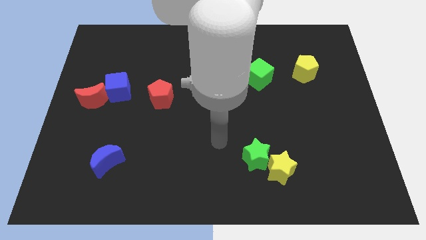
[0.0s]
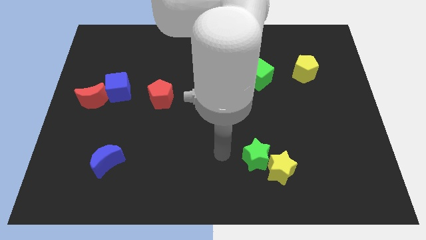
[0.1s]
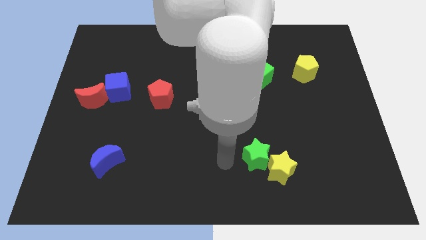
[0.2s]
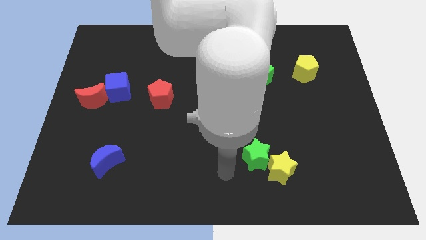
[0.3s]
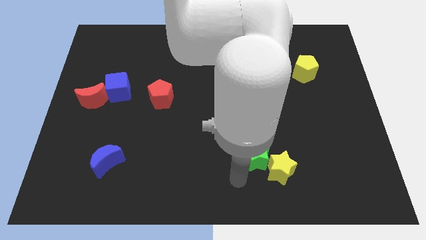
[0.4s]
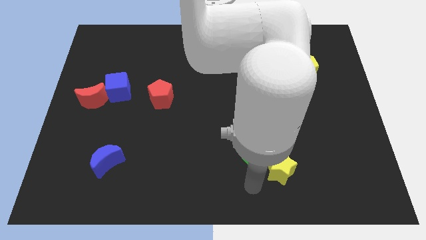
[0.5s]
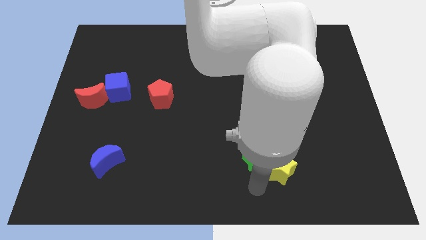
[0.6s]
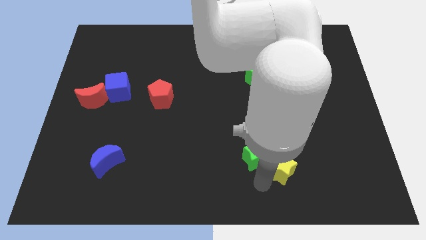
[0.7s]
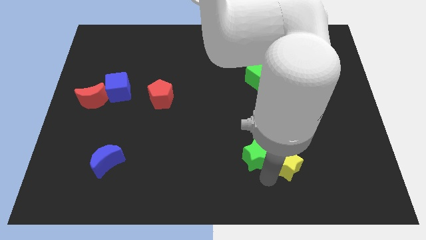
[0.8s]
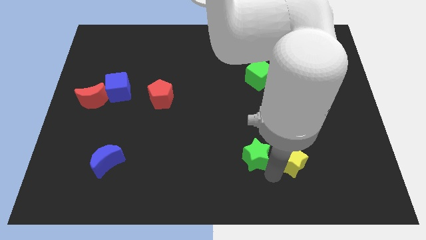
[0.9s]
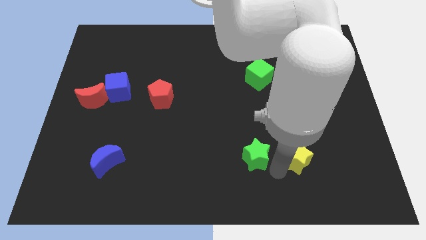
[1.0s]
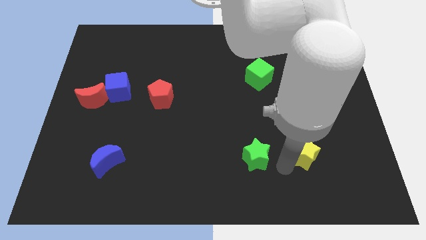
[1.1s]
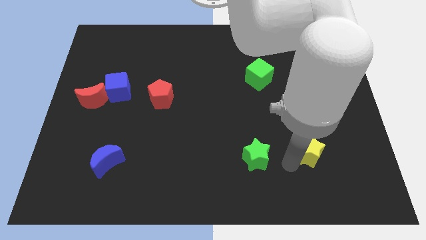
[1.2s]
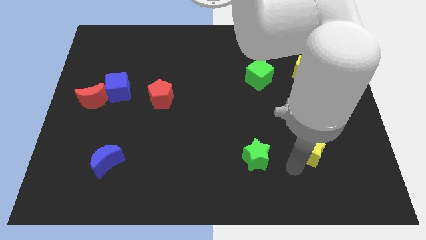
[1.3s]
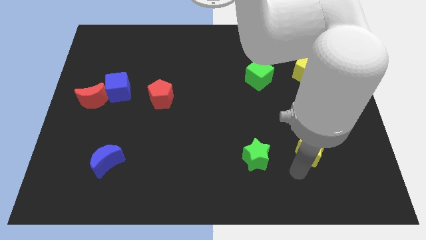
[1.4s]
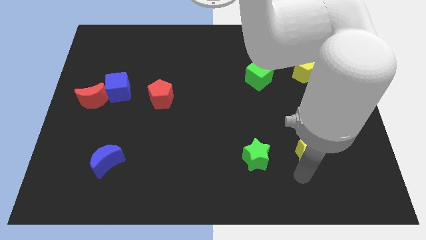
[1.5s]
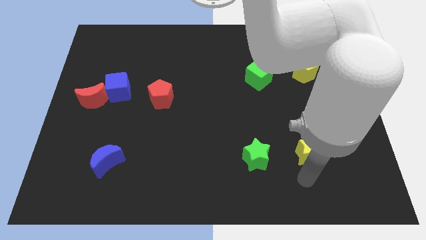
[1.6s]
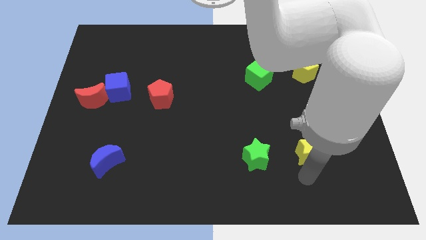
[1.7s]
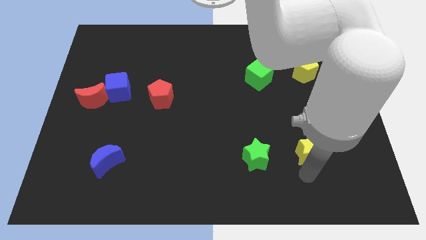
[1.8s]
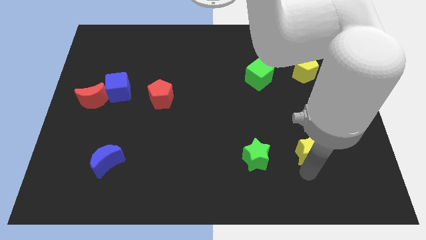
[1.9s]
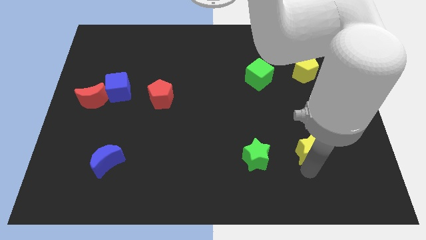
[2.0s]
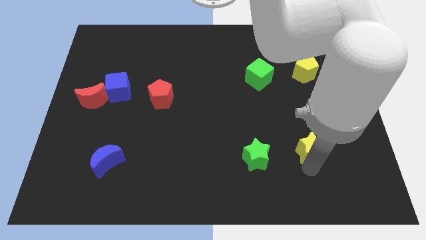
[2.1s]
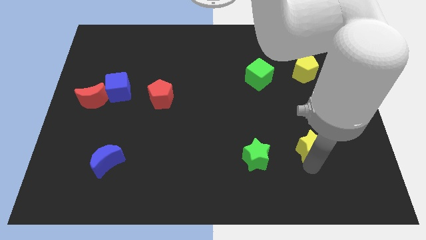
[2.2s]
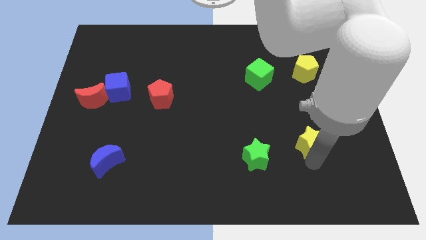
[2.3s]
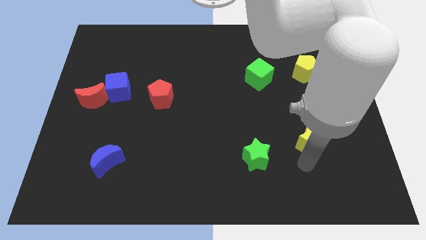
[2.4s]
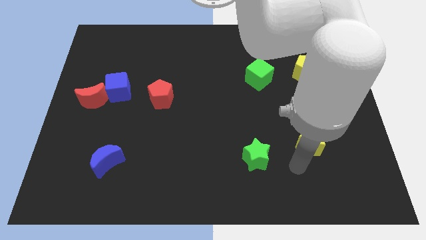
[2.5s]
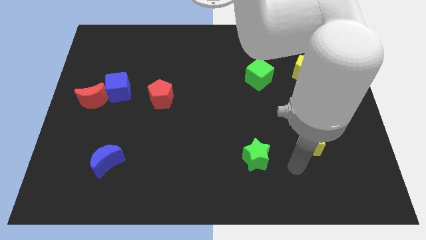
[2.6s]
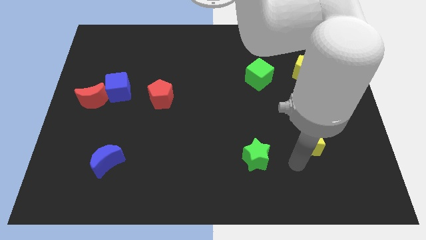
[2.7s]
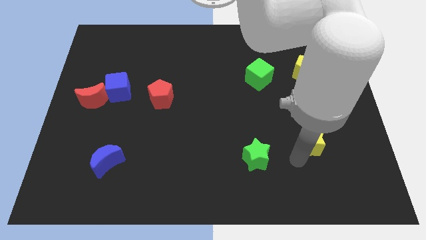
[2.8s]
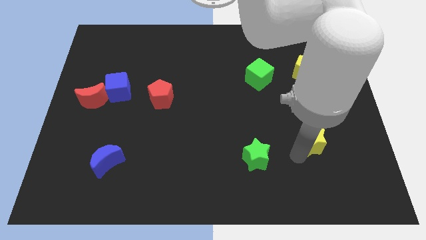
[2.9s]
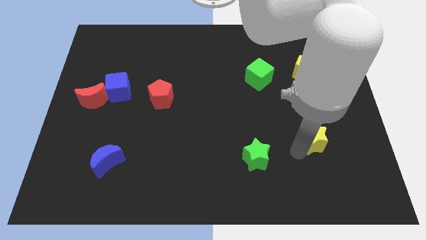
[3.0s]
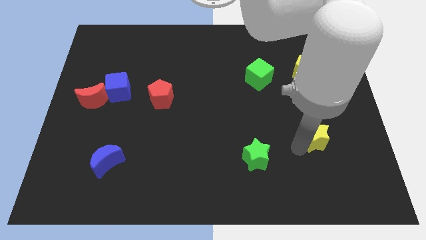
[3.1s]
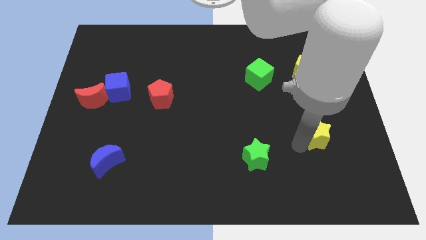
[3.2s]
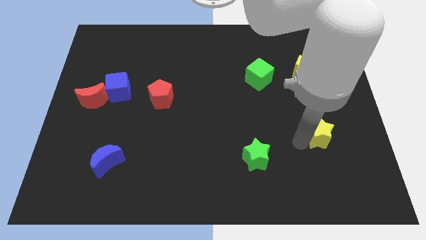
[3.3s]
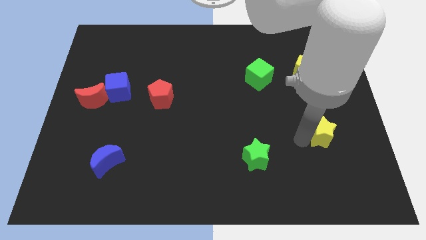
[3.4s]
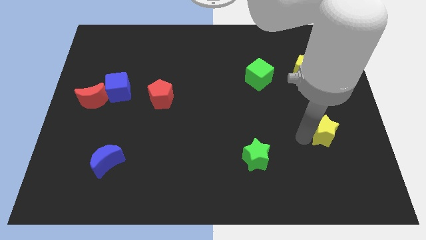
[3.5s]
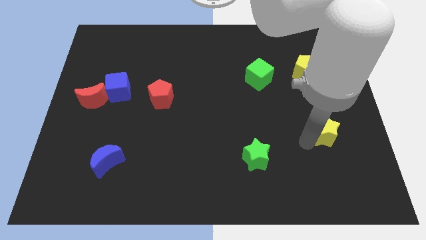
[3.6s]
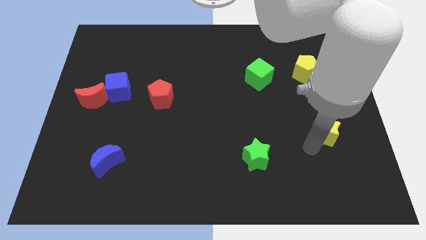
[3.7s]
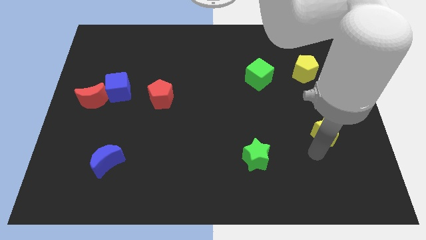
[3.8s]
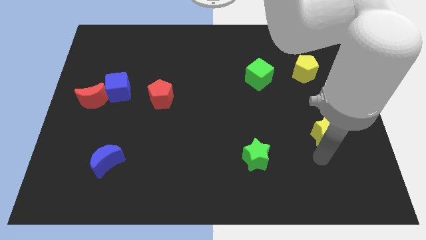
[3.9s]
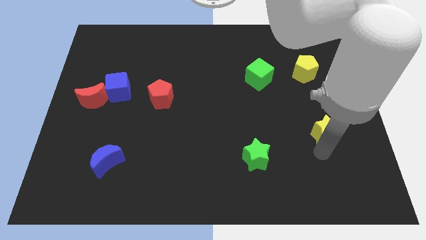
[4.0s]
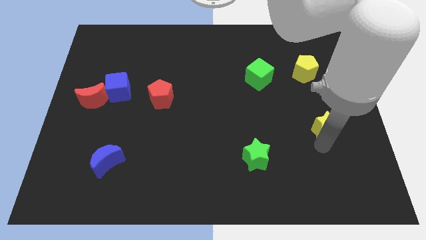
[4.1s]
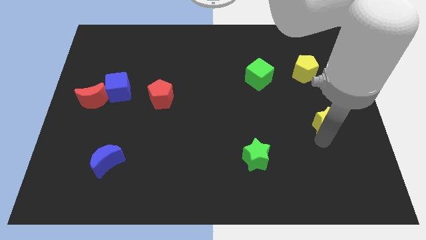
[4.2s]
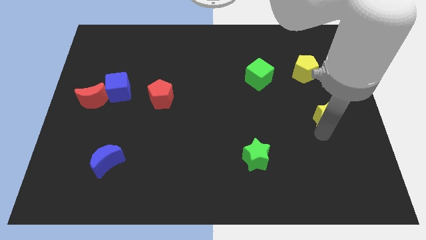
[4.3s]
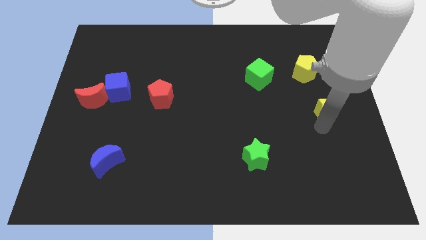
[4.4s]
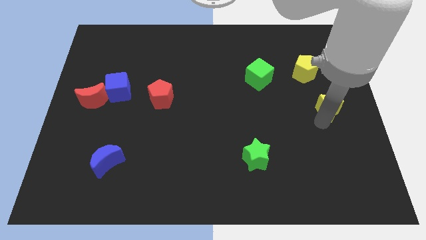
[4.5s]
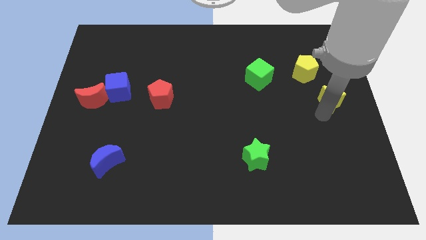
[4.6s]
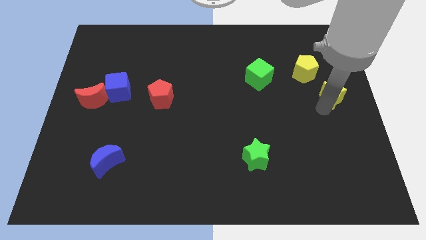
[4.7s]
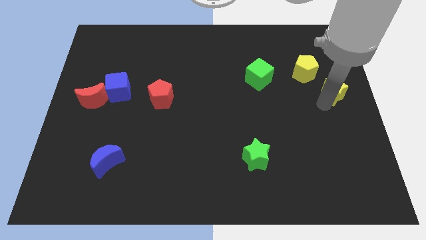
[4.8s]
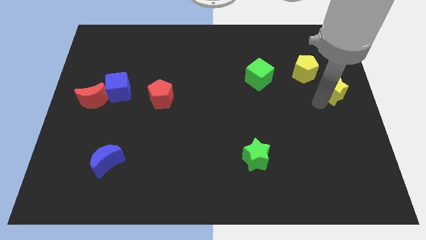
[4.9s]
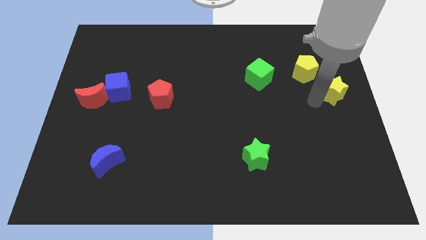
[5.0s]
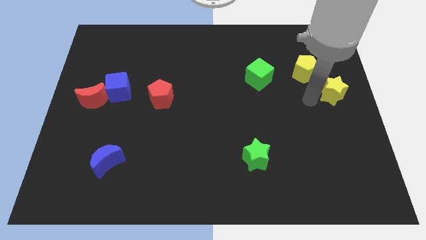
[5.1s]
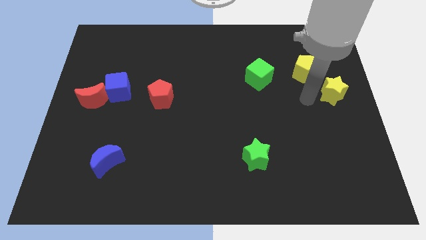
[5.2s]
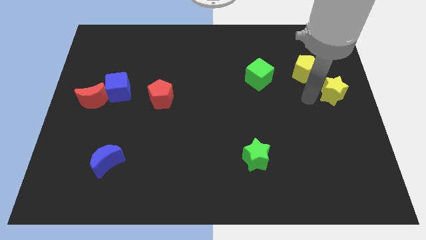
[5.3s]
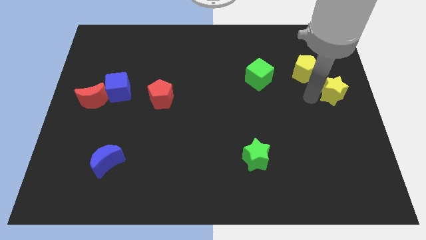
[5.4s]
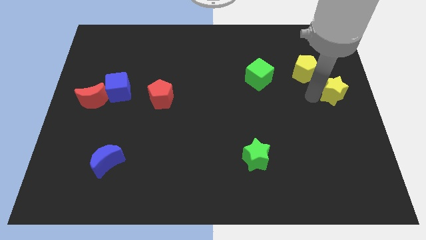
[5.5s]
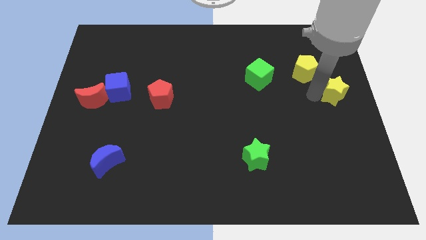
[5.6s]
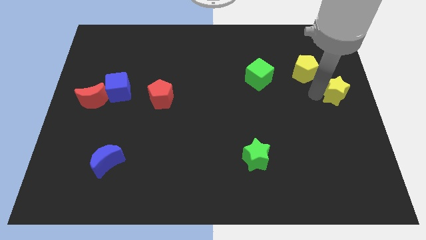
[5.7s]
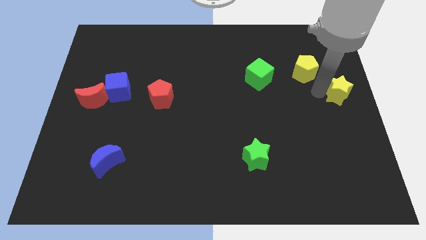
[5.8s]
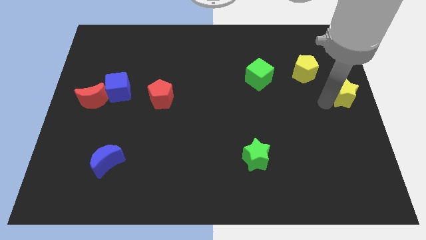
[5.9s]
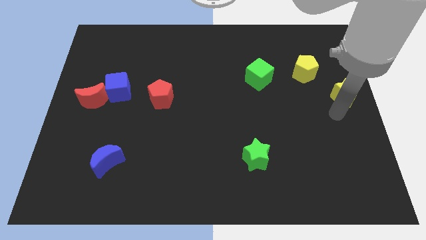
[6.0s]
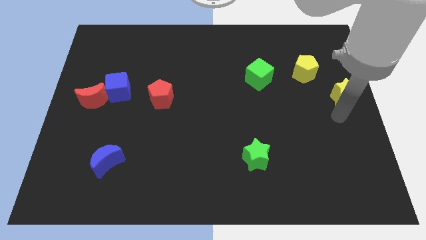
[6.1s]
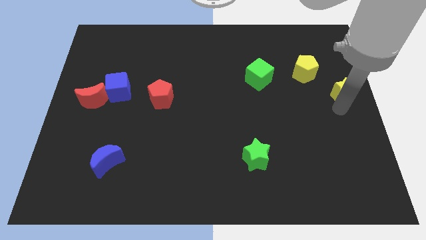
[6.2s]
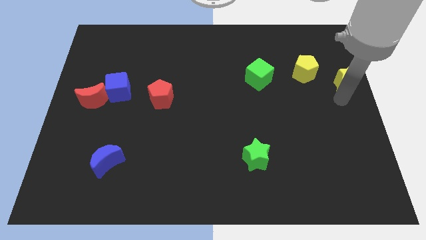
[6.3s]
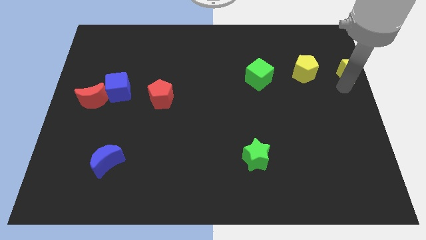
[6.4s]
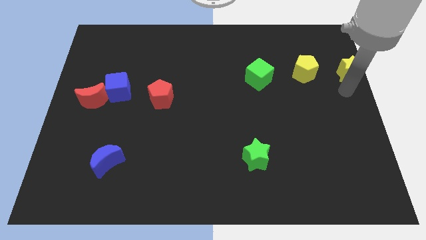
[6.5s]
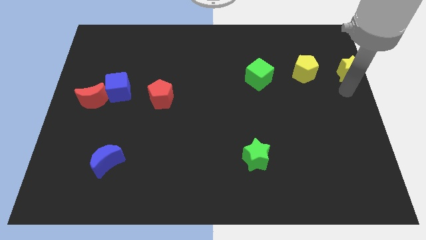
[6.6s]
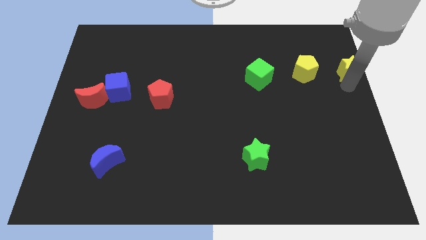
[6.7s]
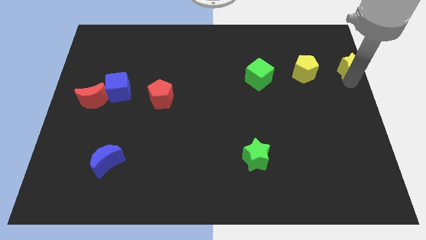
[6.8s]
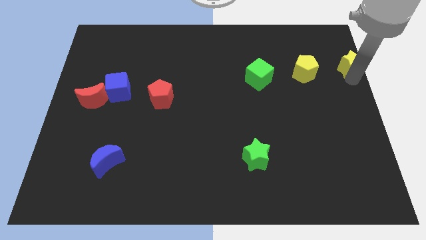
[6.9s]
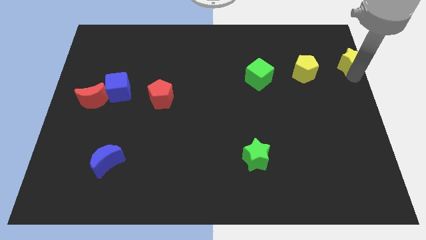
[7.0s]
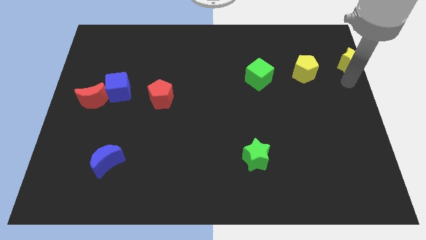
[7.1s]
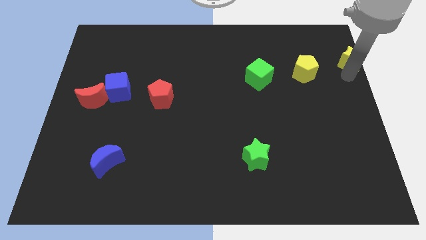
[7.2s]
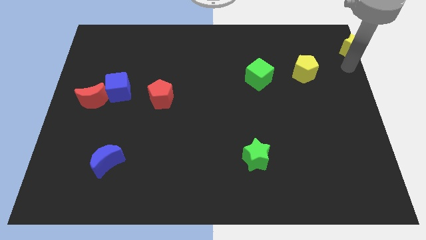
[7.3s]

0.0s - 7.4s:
move the yellow star to the upper right corner

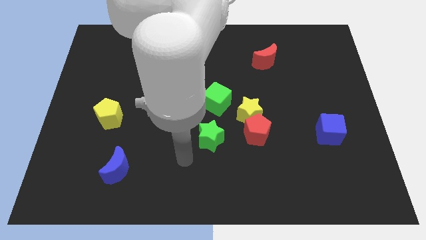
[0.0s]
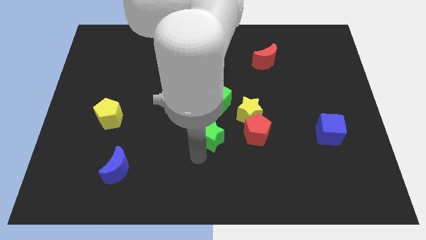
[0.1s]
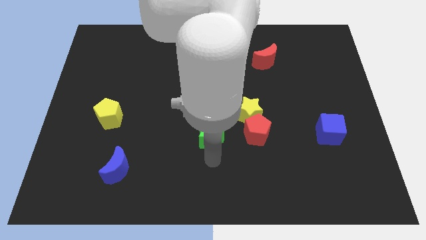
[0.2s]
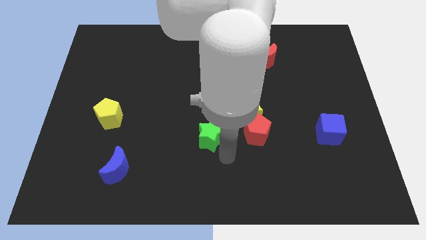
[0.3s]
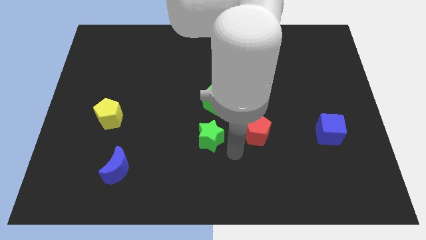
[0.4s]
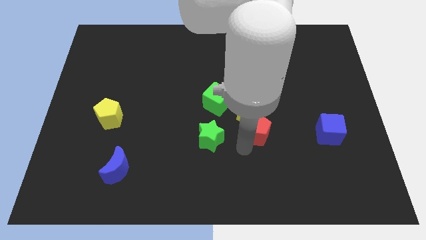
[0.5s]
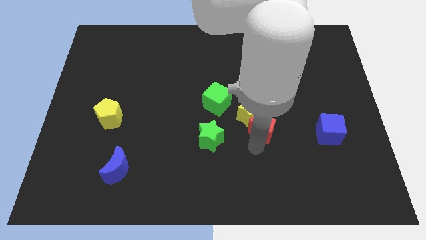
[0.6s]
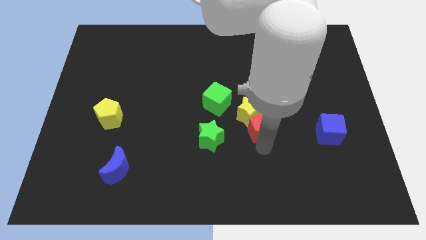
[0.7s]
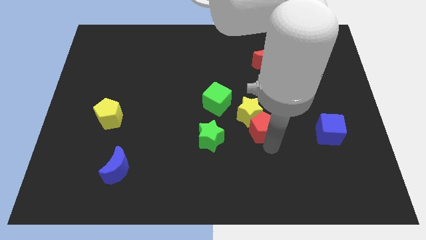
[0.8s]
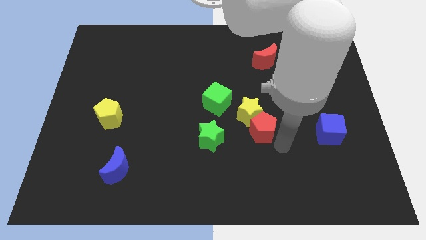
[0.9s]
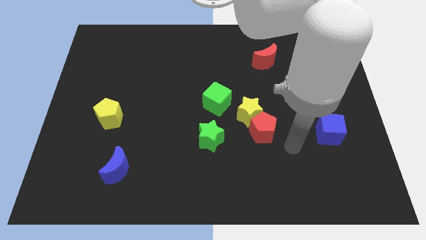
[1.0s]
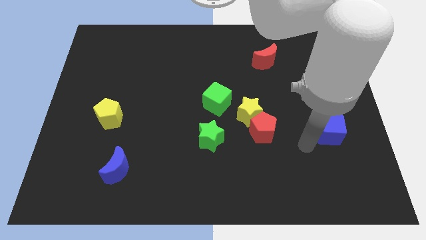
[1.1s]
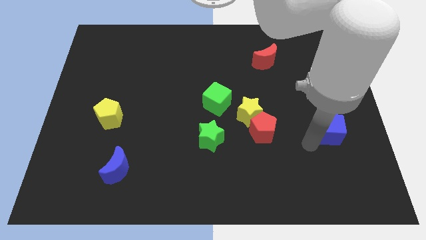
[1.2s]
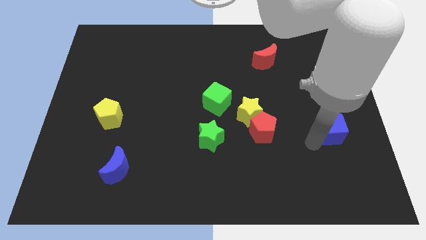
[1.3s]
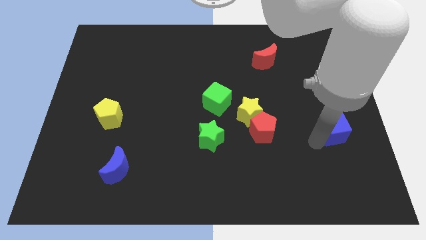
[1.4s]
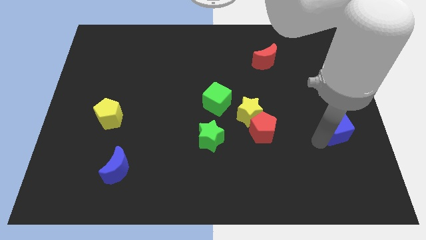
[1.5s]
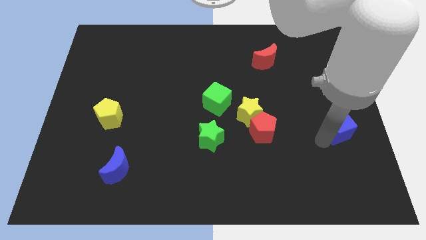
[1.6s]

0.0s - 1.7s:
move the blue cube to the right side of the board
